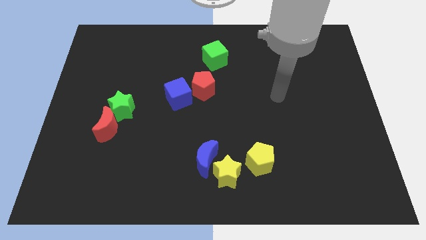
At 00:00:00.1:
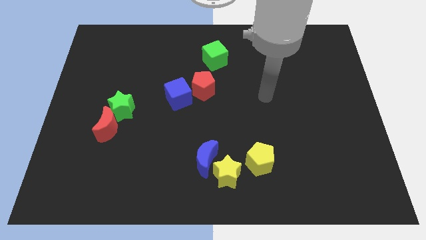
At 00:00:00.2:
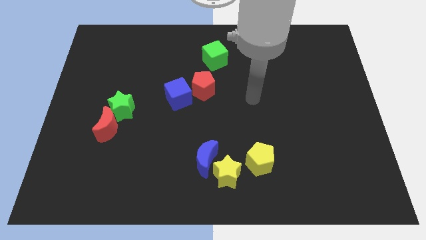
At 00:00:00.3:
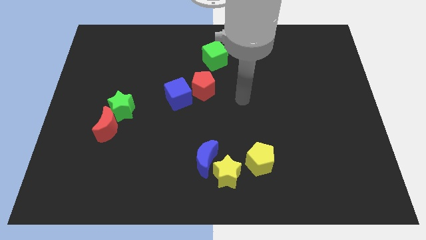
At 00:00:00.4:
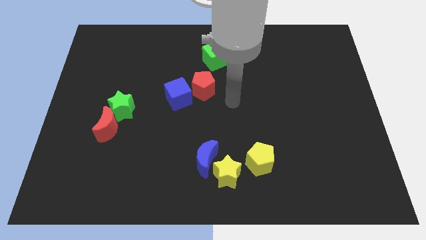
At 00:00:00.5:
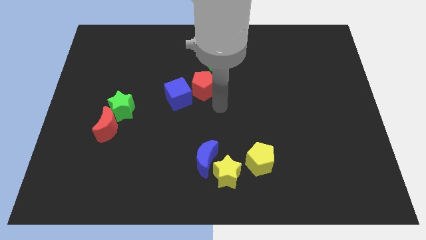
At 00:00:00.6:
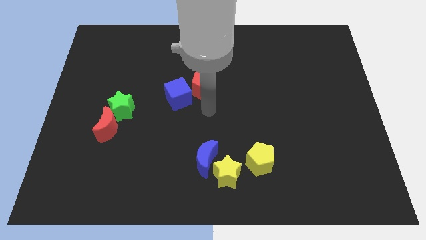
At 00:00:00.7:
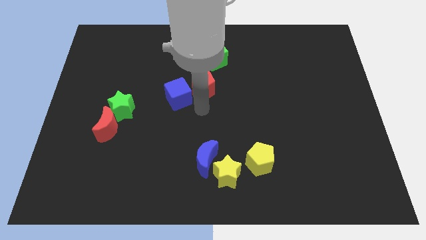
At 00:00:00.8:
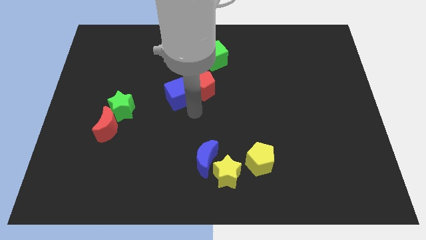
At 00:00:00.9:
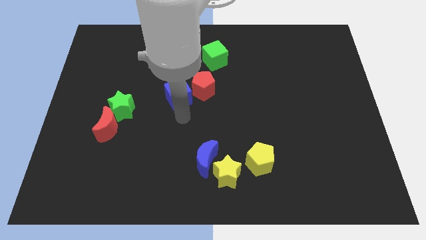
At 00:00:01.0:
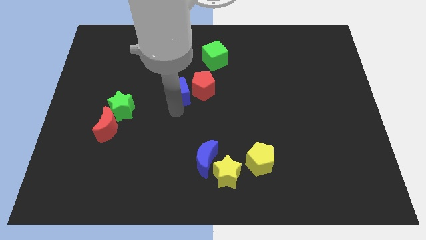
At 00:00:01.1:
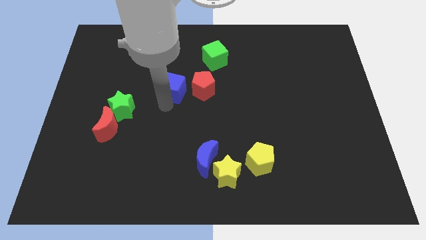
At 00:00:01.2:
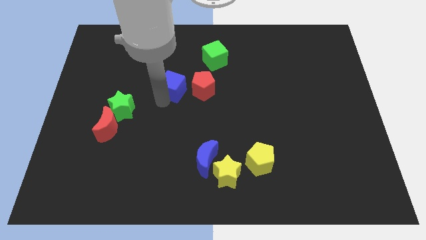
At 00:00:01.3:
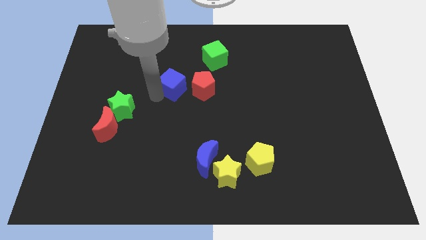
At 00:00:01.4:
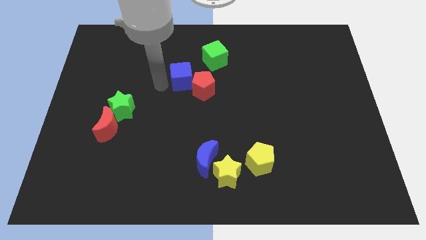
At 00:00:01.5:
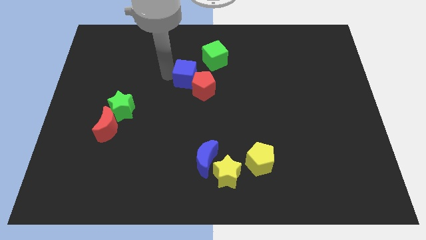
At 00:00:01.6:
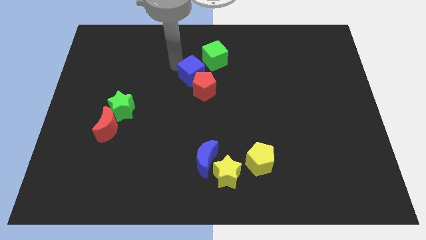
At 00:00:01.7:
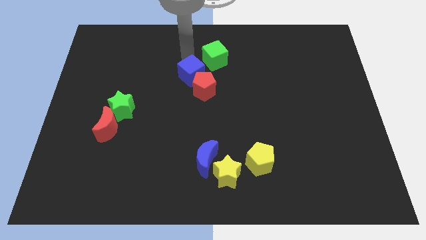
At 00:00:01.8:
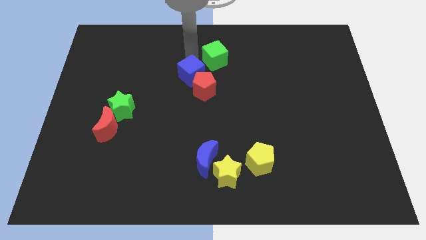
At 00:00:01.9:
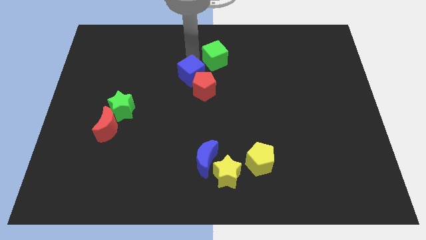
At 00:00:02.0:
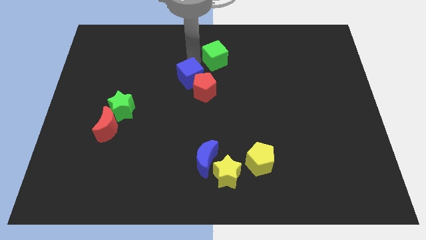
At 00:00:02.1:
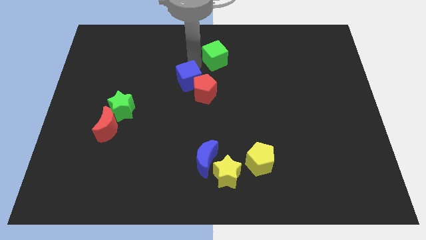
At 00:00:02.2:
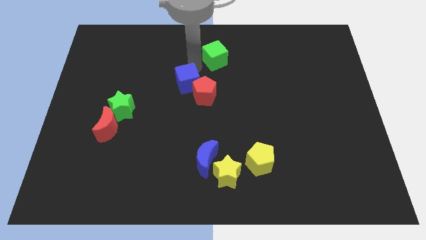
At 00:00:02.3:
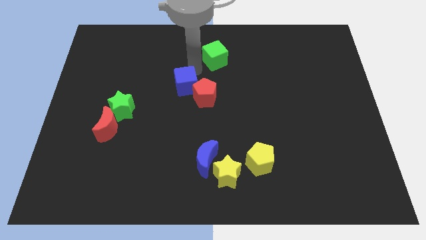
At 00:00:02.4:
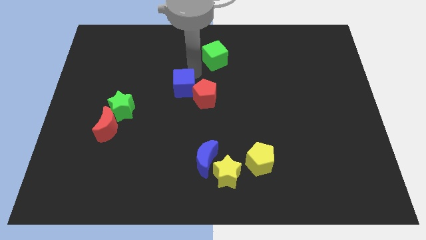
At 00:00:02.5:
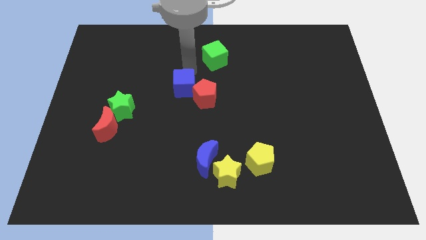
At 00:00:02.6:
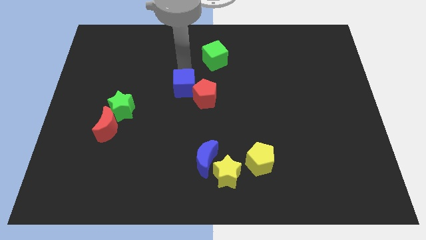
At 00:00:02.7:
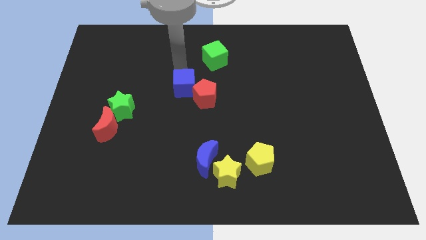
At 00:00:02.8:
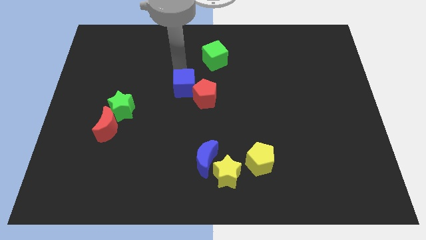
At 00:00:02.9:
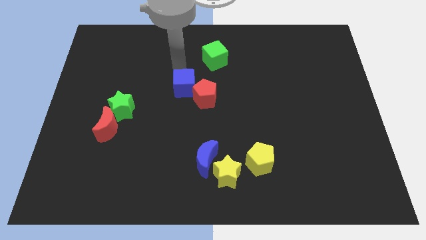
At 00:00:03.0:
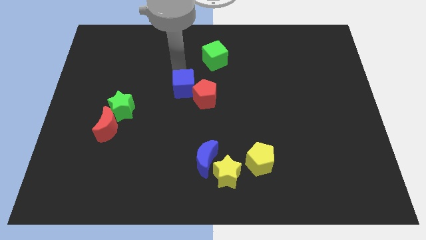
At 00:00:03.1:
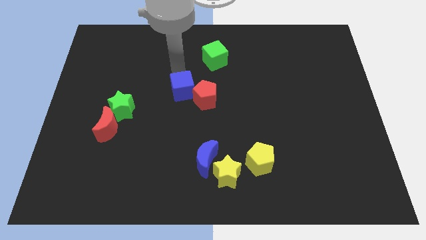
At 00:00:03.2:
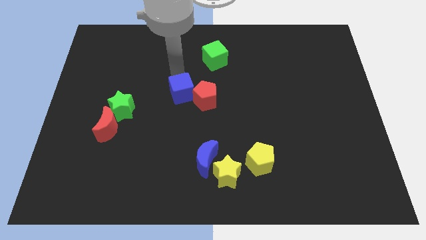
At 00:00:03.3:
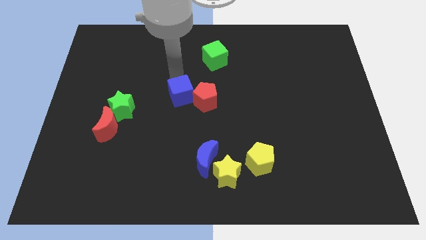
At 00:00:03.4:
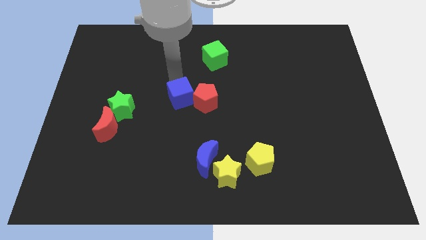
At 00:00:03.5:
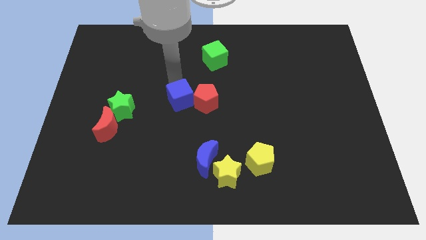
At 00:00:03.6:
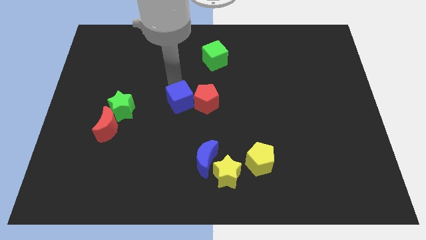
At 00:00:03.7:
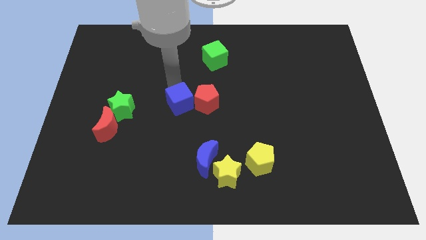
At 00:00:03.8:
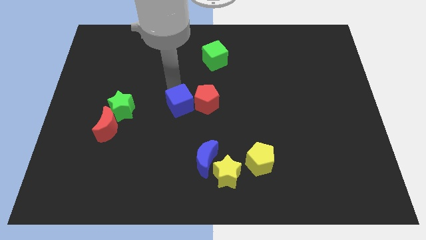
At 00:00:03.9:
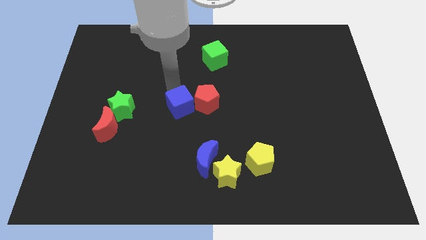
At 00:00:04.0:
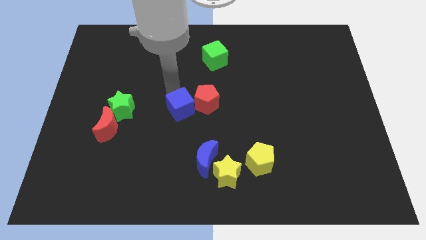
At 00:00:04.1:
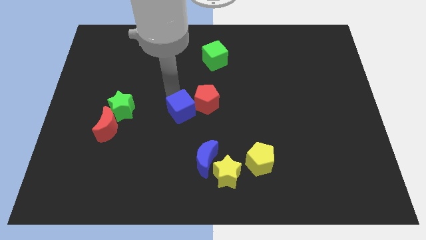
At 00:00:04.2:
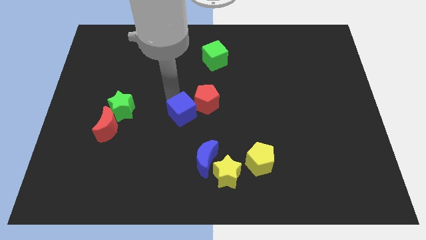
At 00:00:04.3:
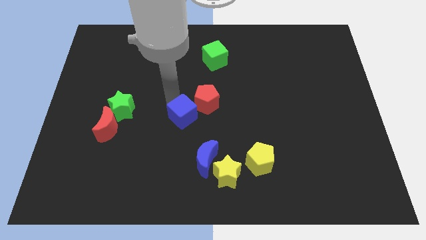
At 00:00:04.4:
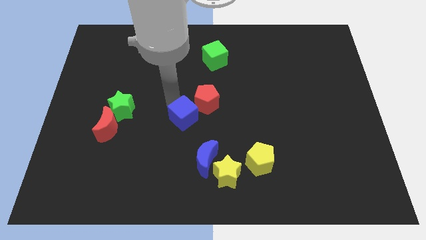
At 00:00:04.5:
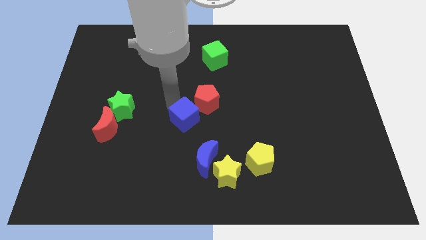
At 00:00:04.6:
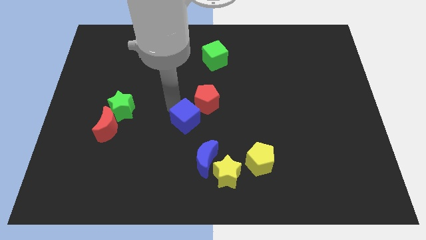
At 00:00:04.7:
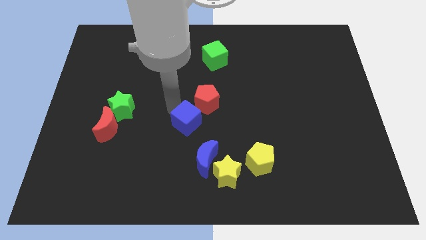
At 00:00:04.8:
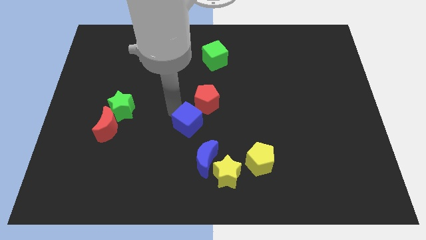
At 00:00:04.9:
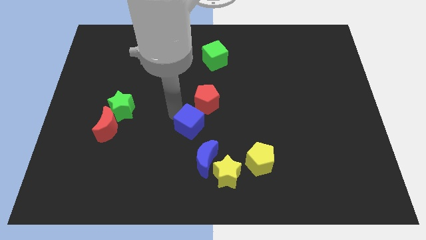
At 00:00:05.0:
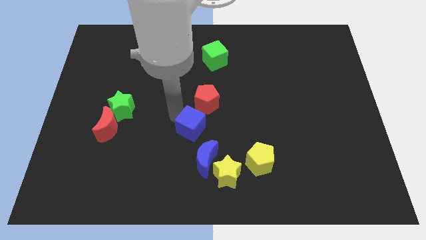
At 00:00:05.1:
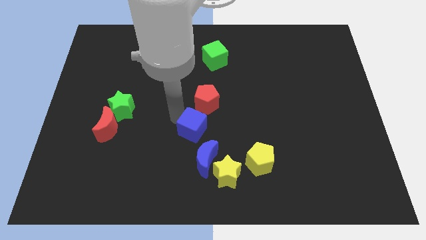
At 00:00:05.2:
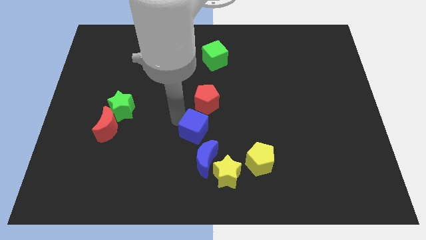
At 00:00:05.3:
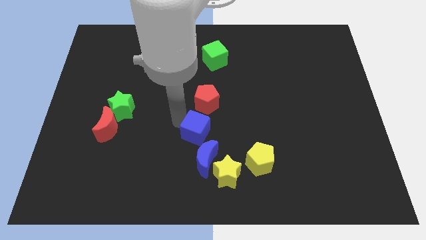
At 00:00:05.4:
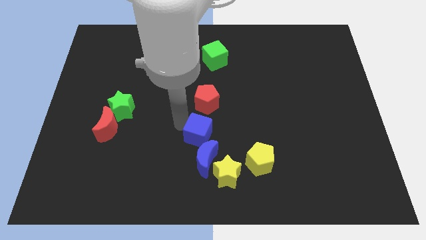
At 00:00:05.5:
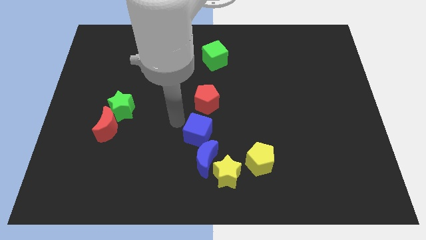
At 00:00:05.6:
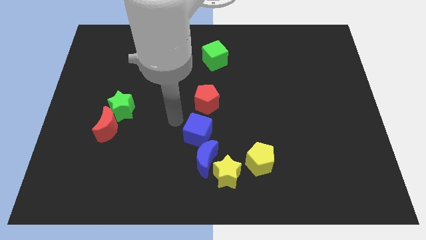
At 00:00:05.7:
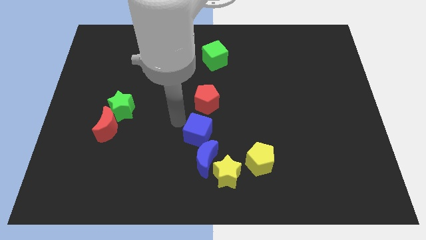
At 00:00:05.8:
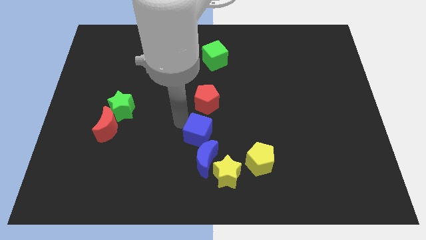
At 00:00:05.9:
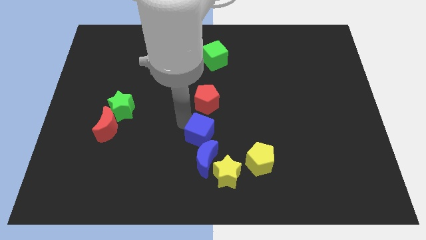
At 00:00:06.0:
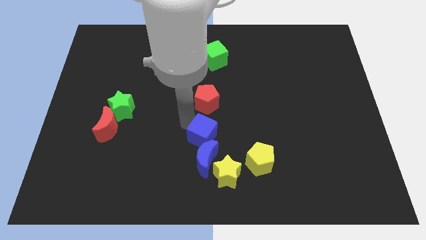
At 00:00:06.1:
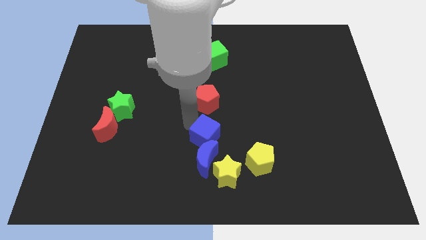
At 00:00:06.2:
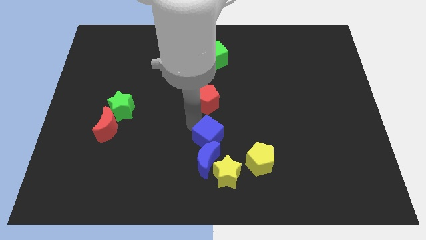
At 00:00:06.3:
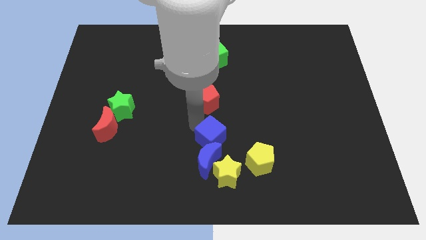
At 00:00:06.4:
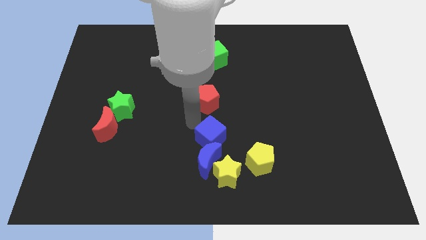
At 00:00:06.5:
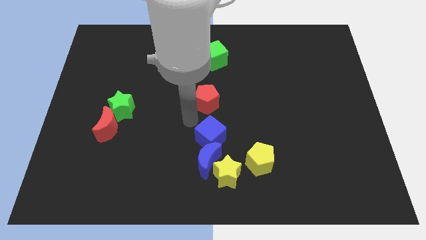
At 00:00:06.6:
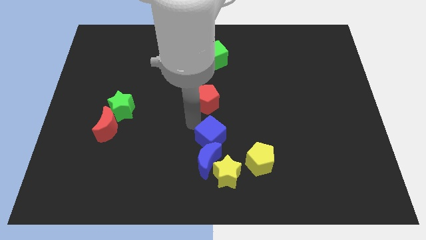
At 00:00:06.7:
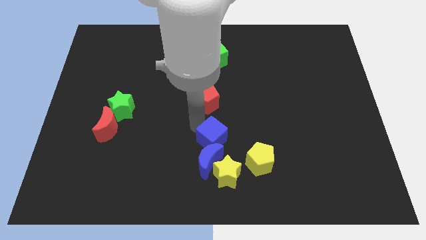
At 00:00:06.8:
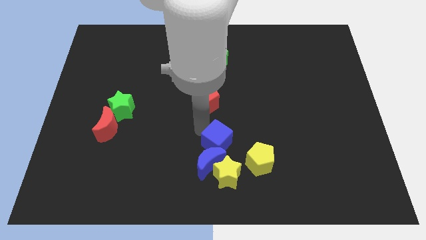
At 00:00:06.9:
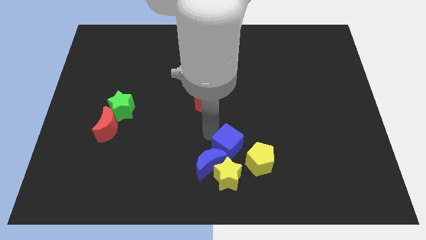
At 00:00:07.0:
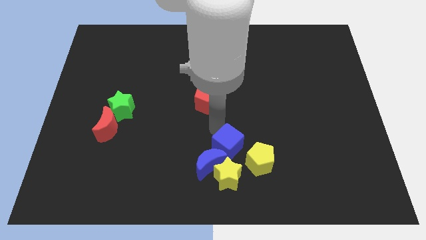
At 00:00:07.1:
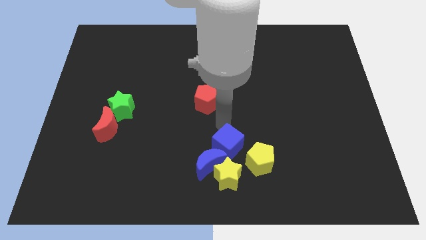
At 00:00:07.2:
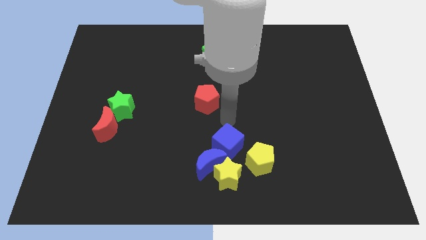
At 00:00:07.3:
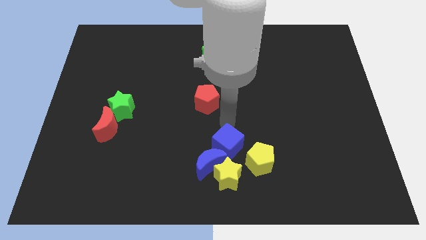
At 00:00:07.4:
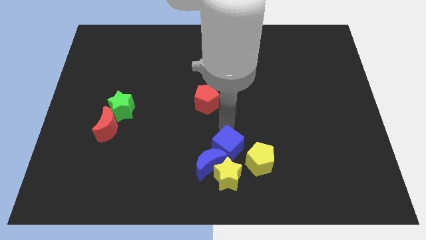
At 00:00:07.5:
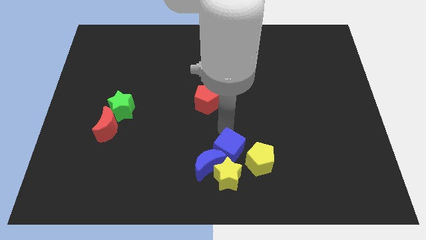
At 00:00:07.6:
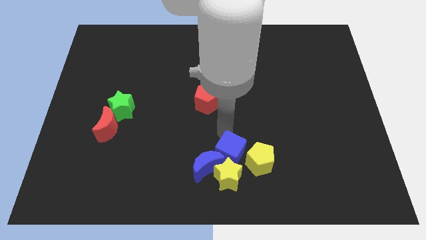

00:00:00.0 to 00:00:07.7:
push the blue cube next to the yellow star
